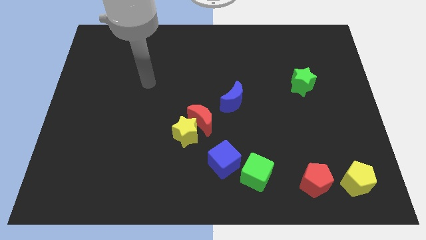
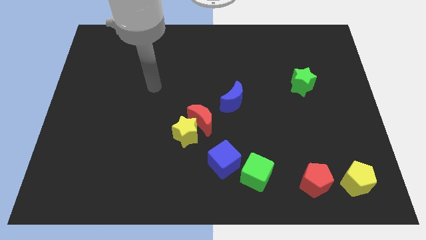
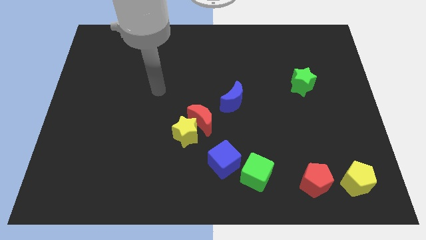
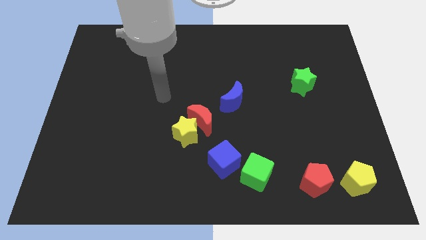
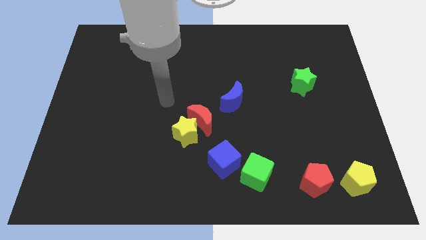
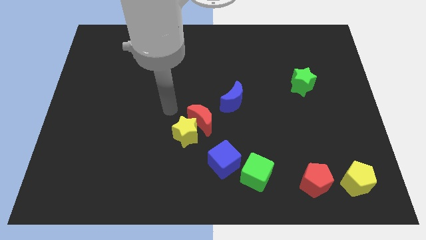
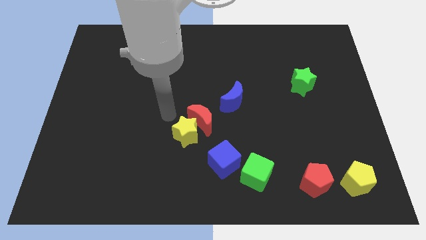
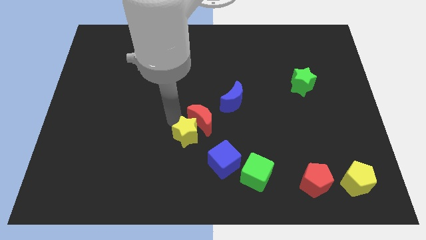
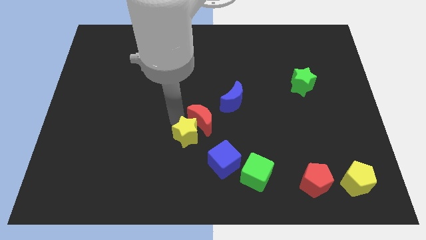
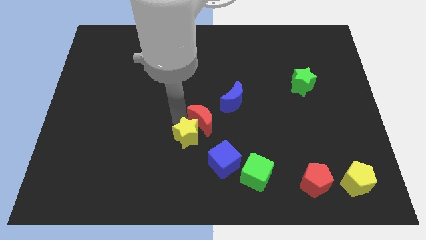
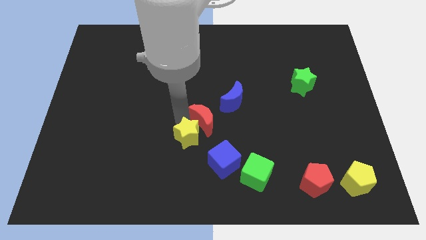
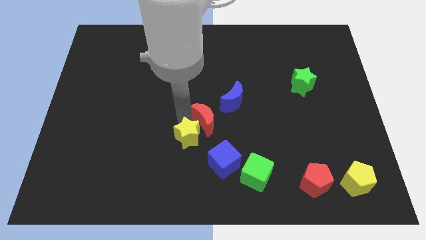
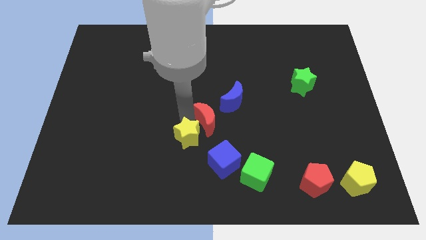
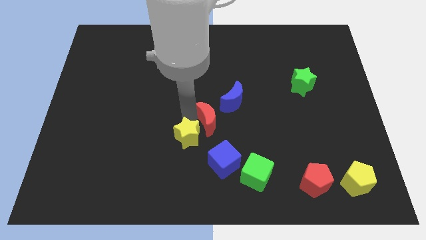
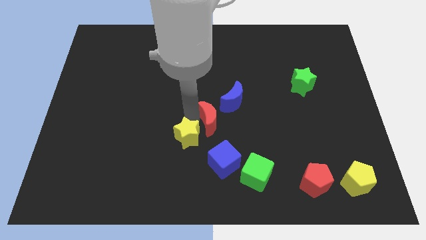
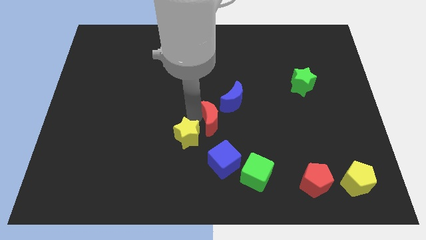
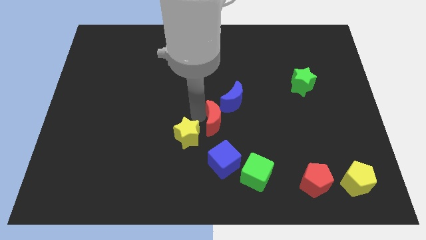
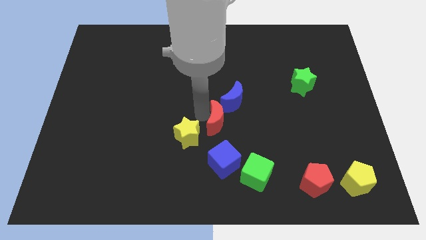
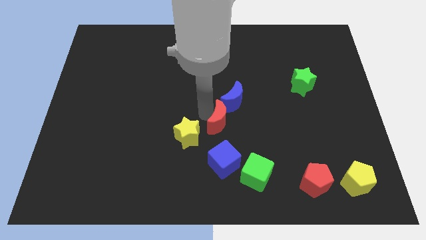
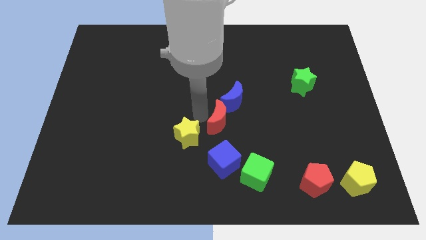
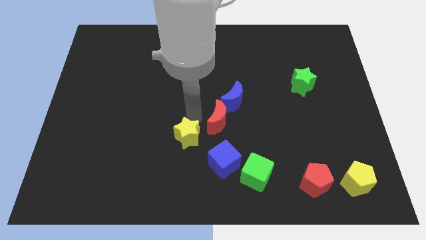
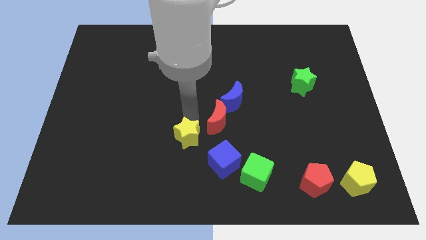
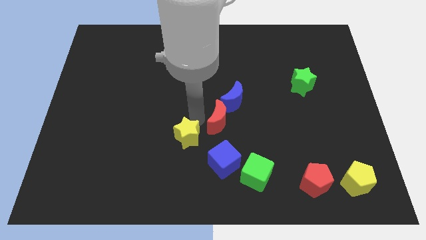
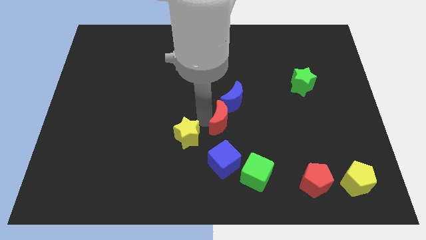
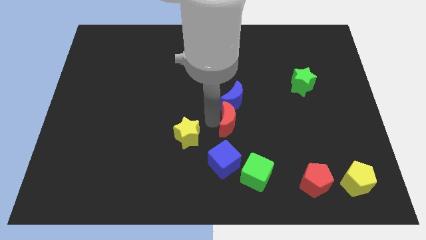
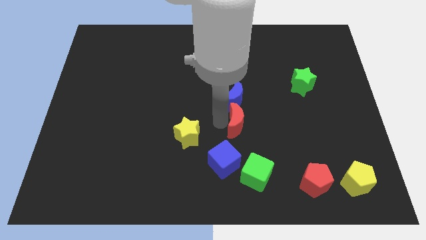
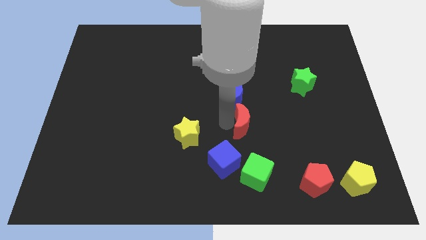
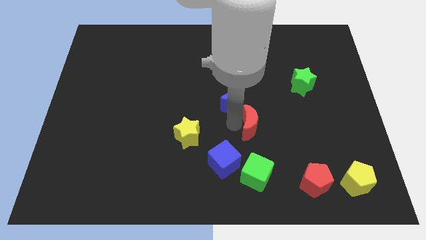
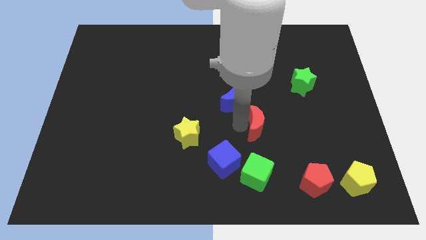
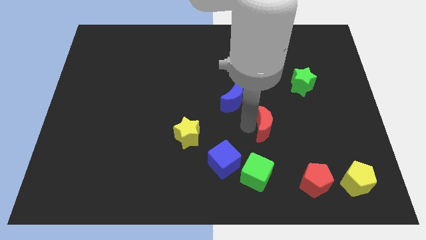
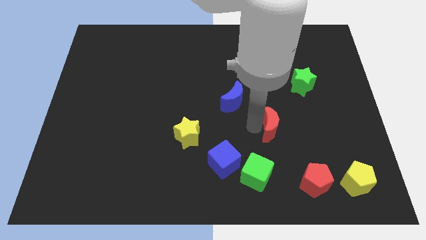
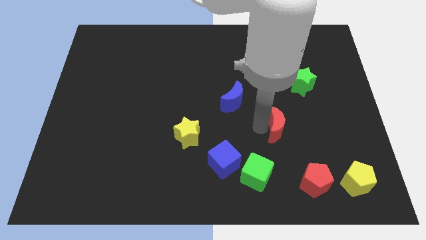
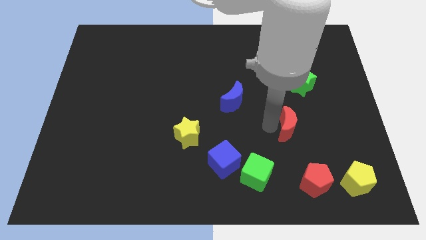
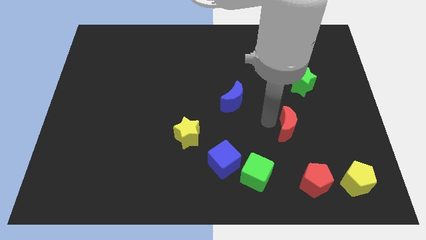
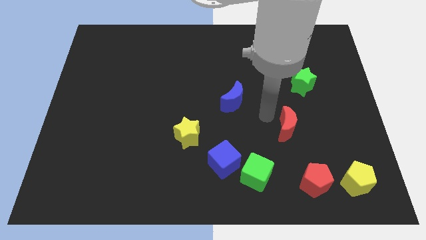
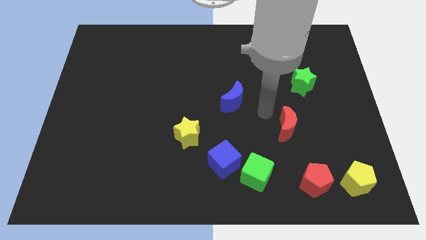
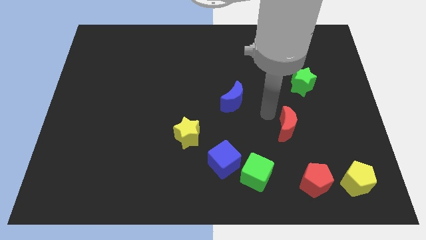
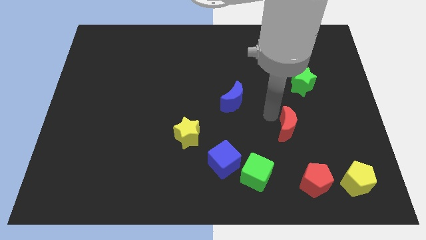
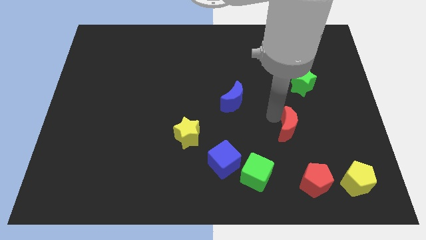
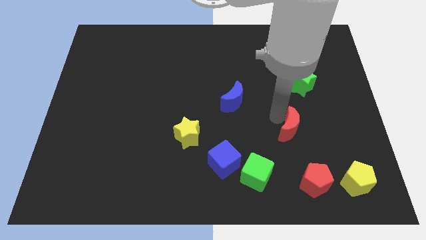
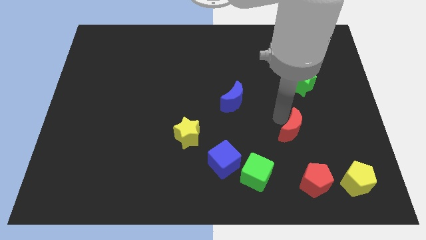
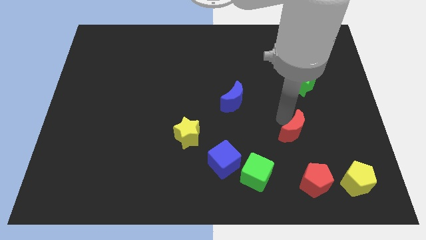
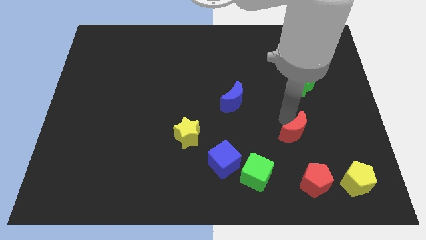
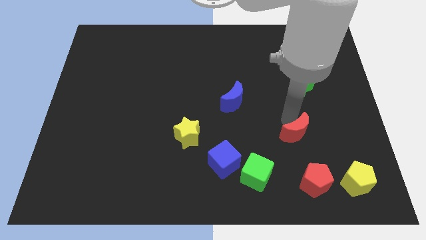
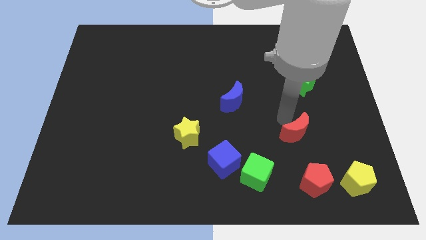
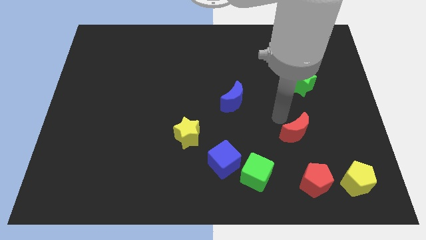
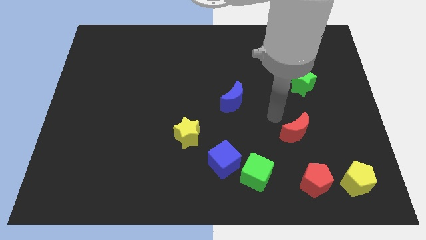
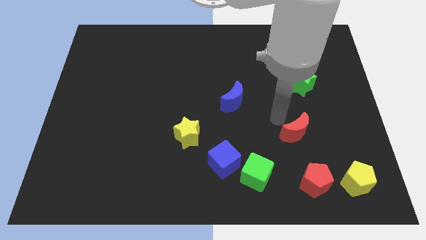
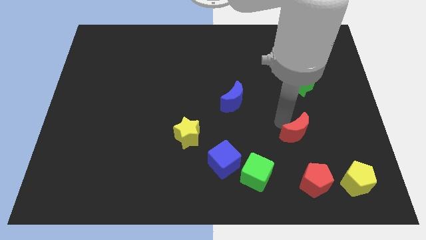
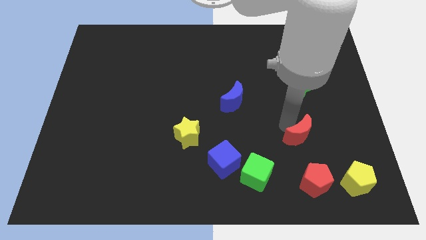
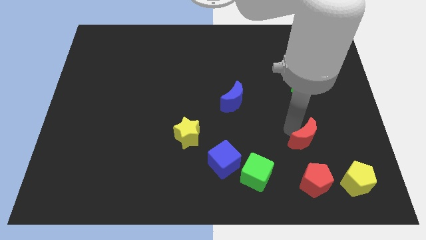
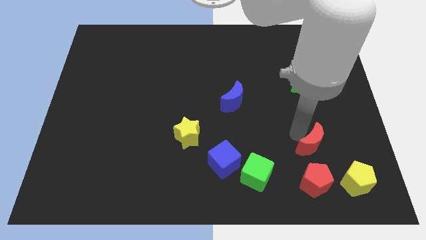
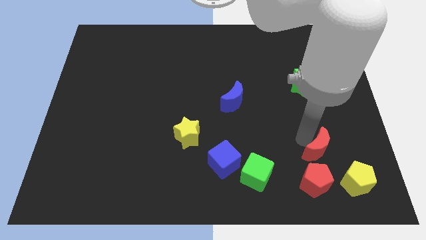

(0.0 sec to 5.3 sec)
put the red moon diagonally up and to the right of the red pentagon

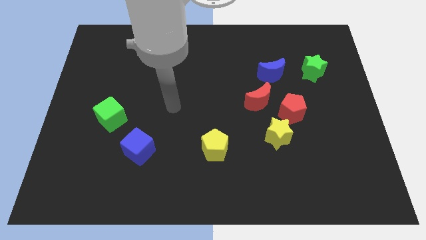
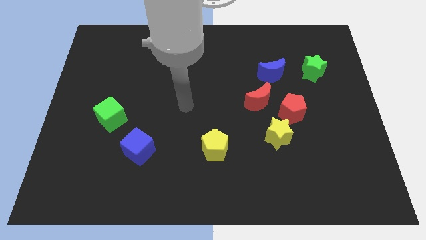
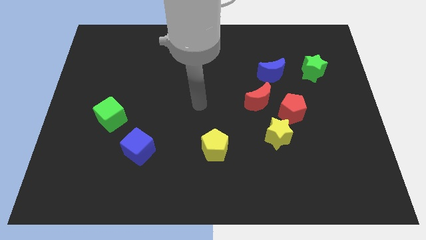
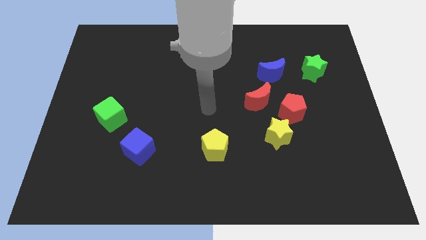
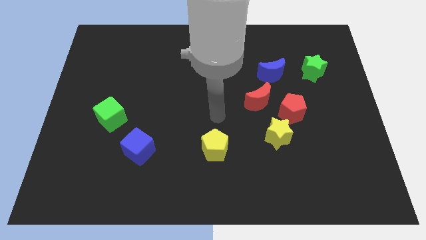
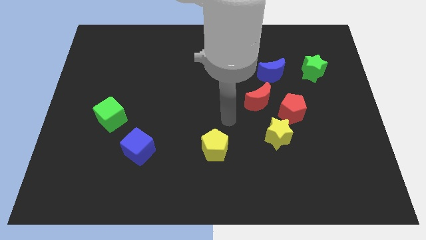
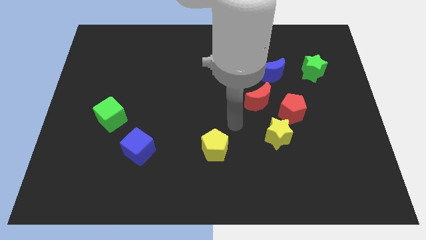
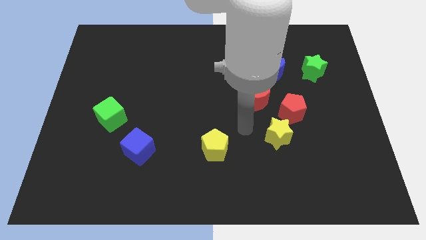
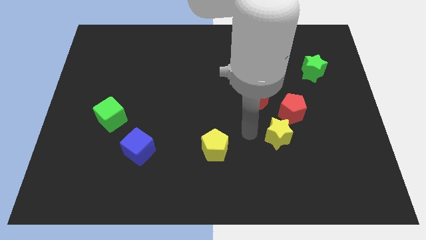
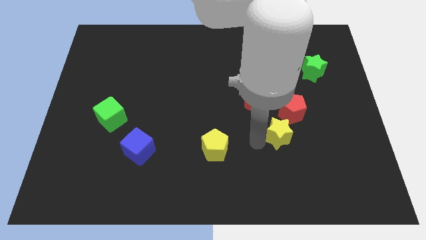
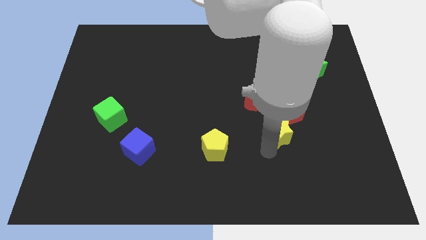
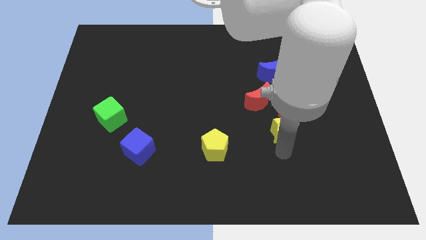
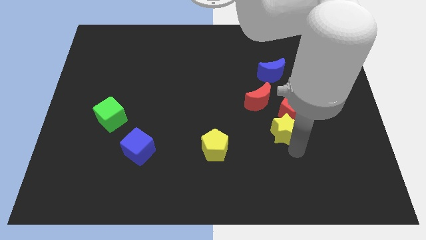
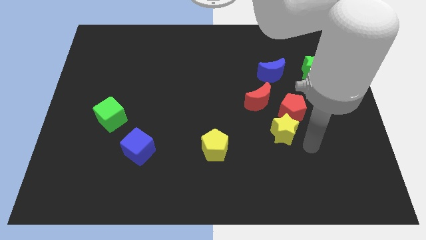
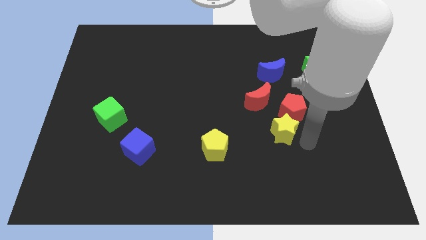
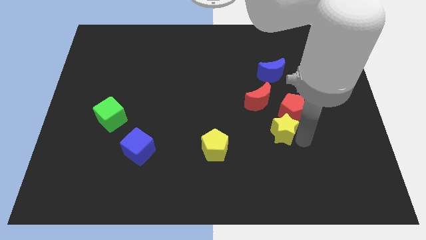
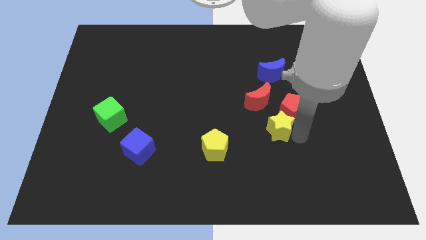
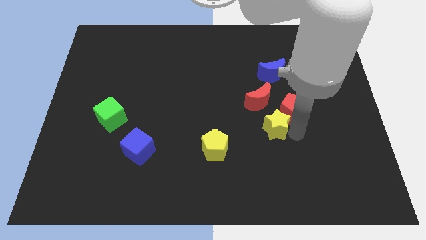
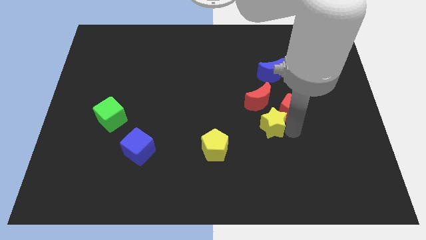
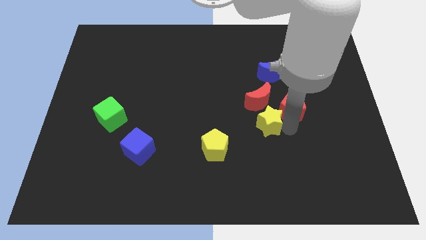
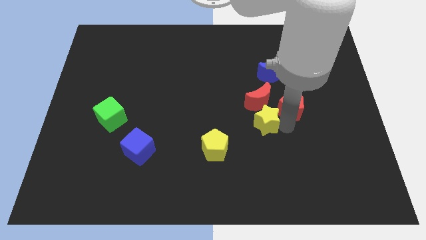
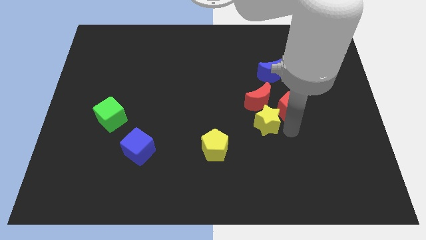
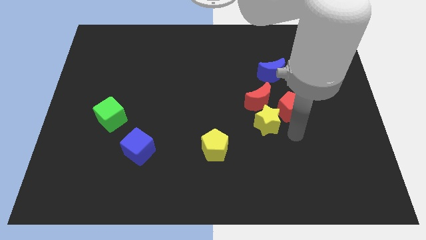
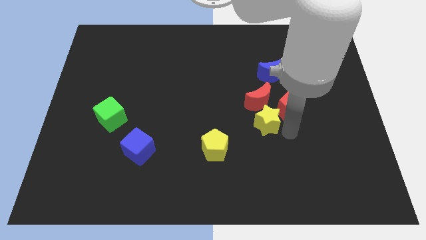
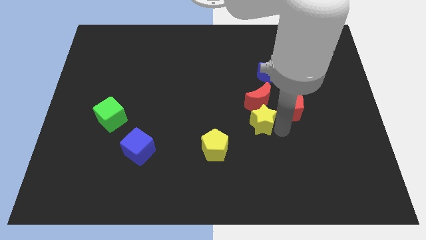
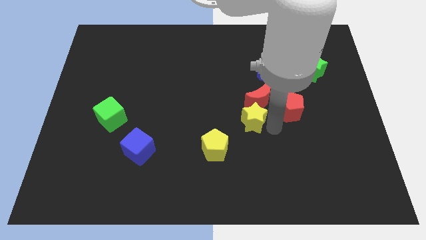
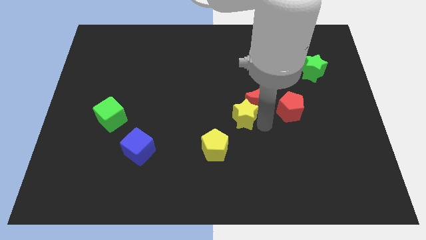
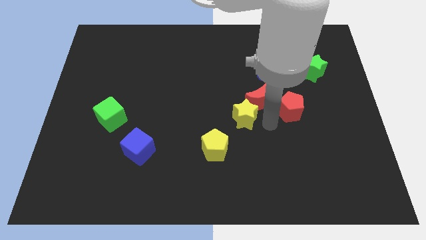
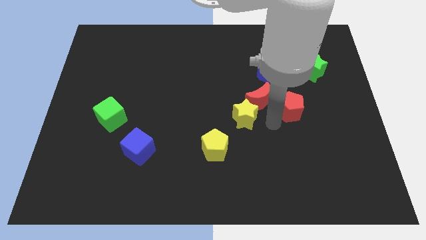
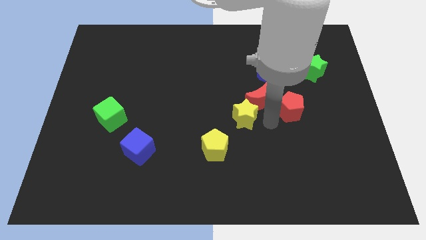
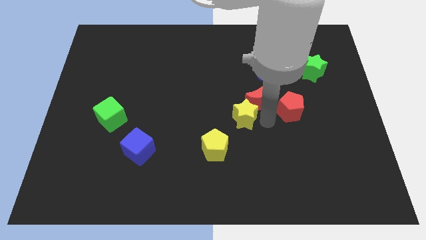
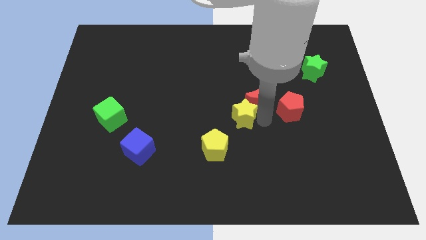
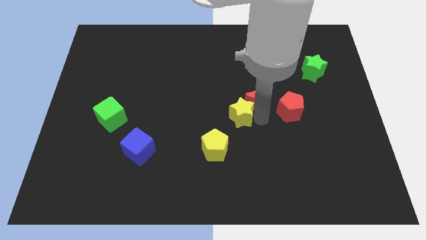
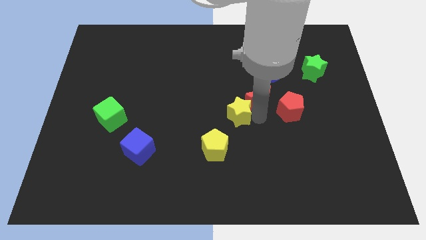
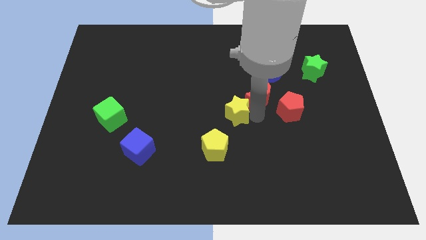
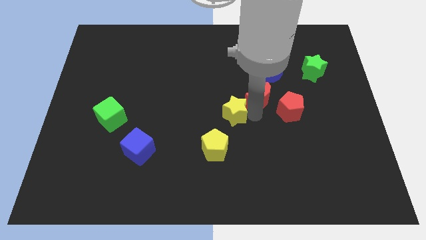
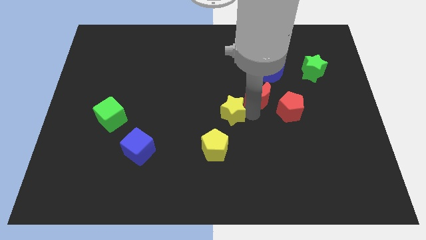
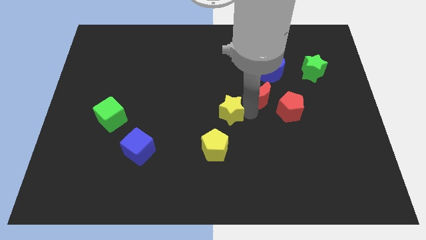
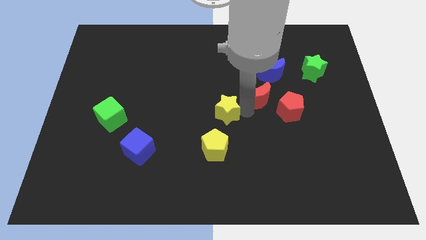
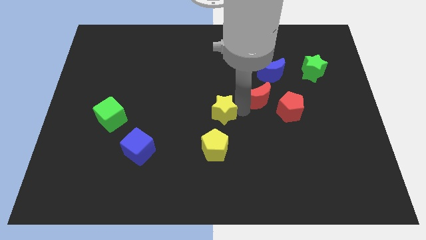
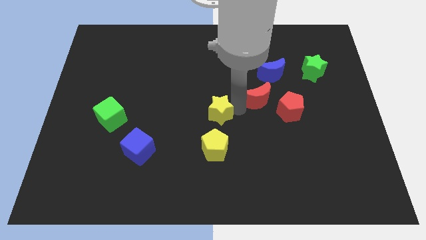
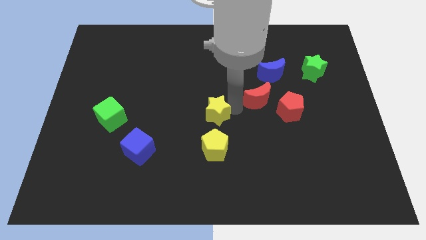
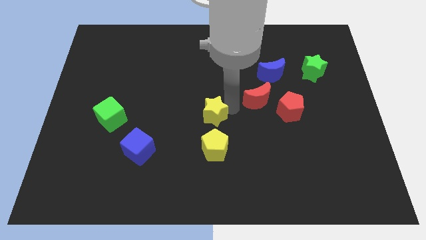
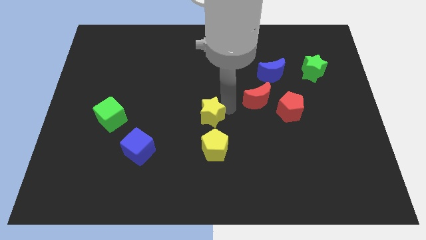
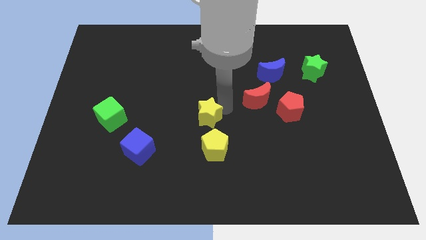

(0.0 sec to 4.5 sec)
move the yellow star to the top left side of the yellow pentagon
